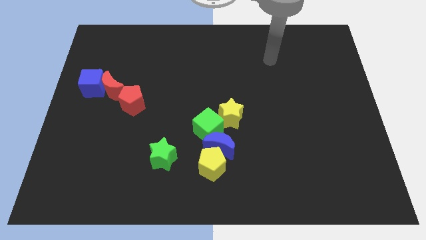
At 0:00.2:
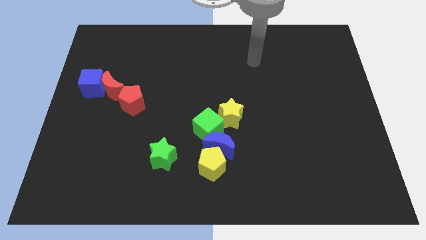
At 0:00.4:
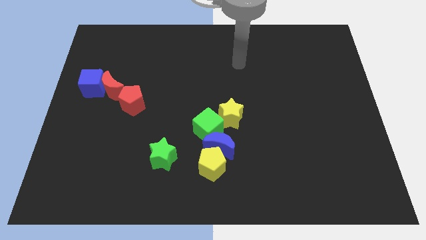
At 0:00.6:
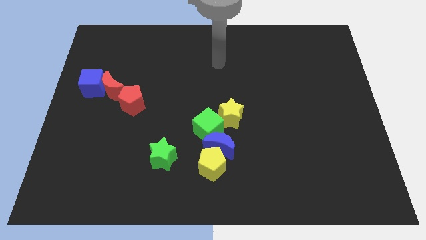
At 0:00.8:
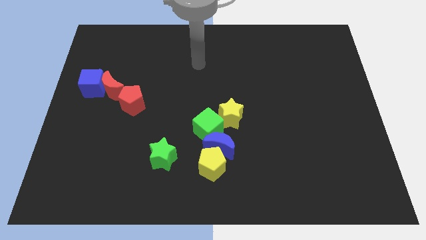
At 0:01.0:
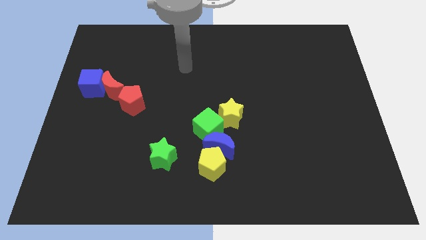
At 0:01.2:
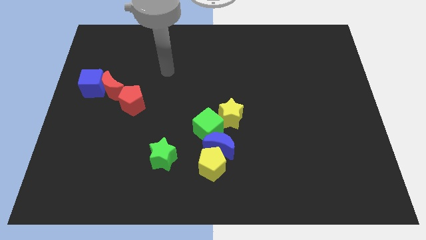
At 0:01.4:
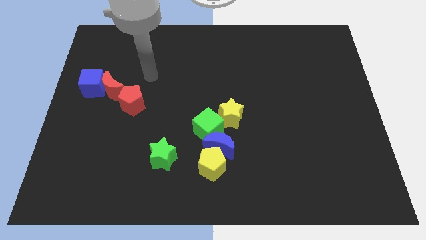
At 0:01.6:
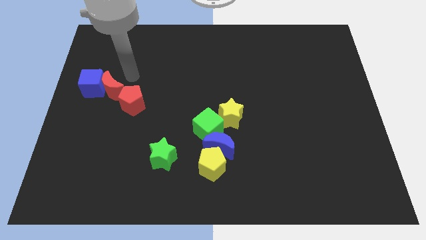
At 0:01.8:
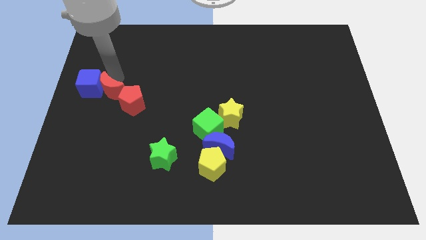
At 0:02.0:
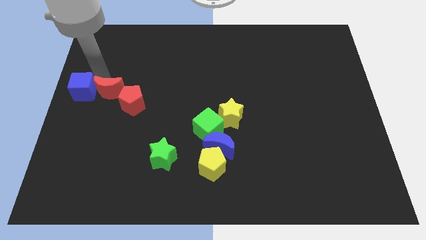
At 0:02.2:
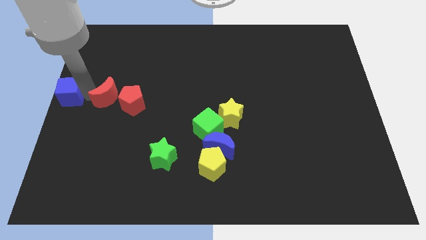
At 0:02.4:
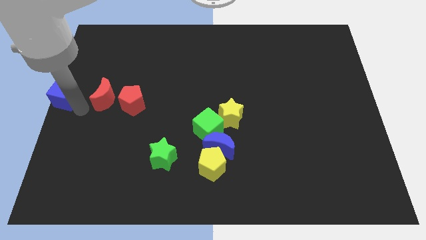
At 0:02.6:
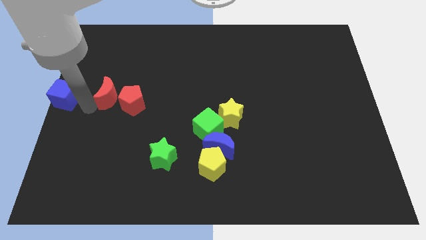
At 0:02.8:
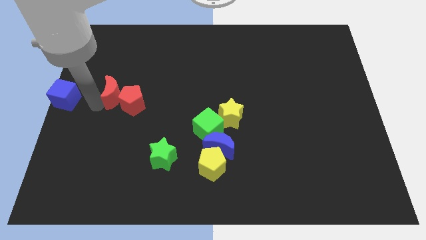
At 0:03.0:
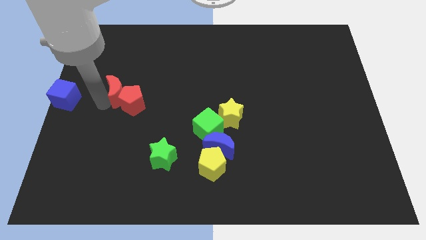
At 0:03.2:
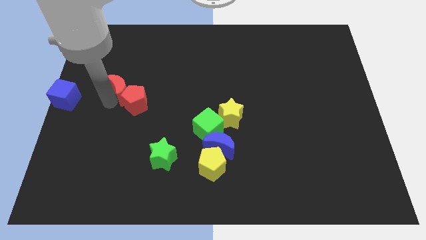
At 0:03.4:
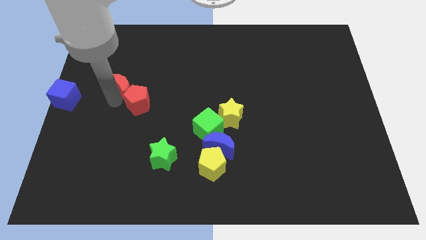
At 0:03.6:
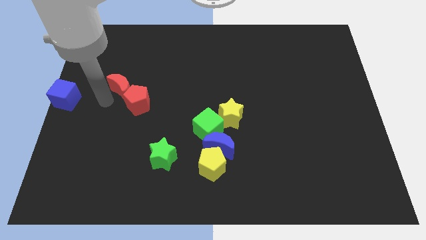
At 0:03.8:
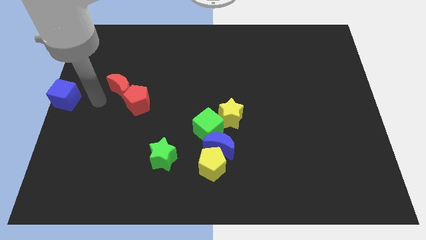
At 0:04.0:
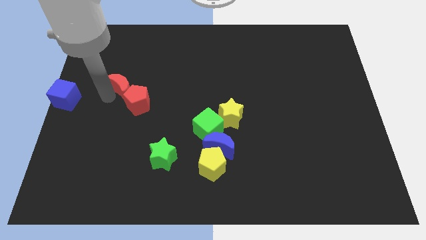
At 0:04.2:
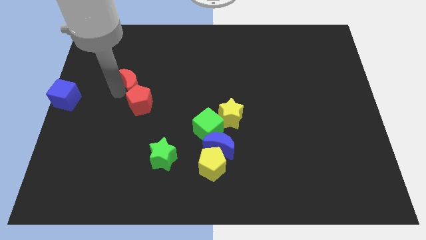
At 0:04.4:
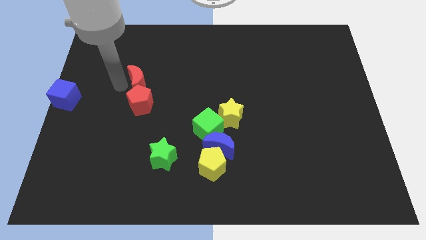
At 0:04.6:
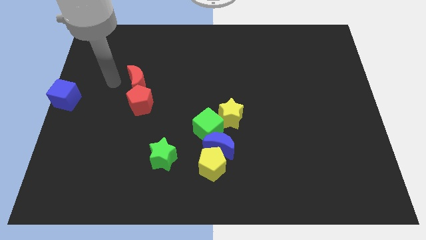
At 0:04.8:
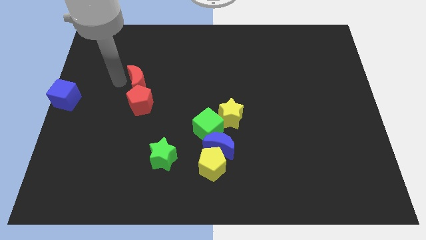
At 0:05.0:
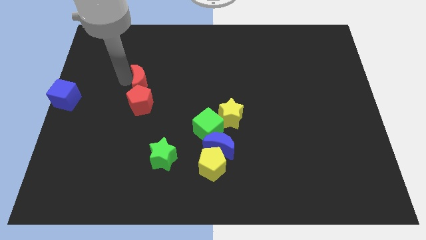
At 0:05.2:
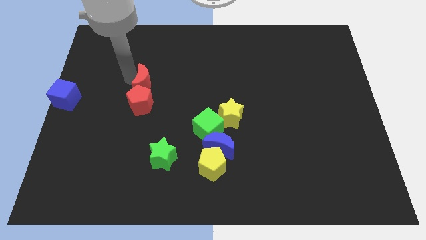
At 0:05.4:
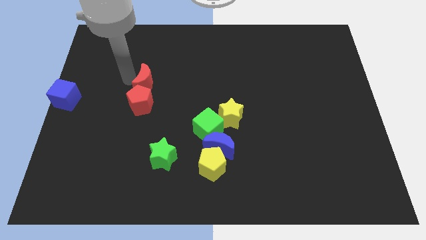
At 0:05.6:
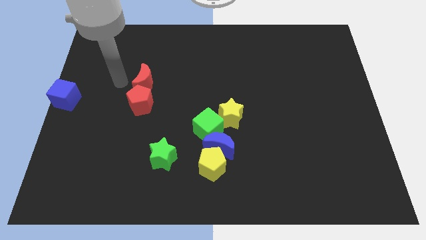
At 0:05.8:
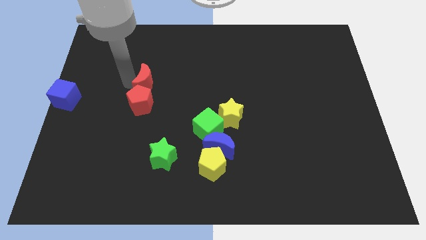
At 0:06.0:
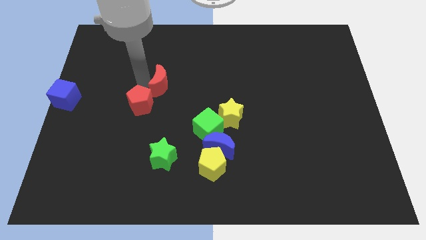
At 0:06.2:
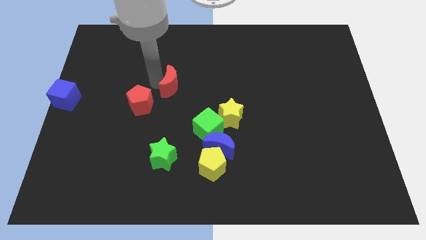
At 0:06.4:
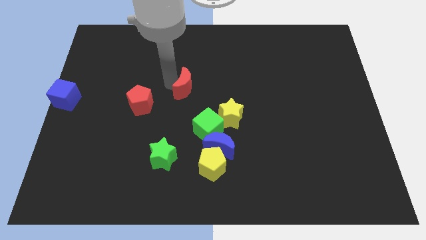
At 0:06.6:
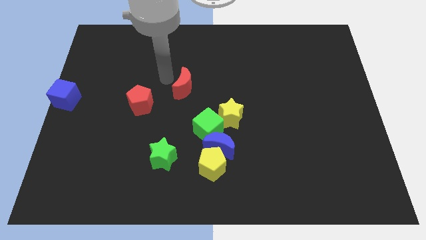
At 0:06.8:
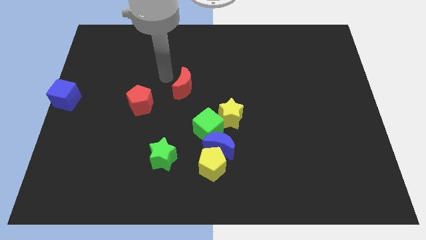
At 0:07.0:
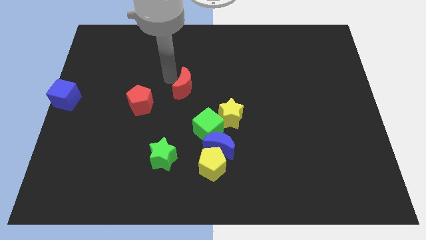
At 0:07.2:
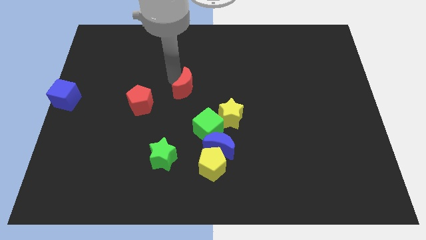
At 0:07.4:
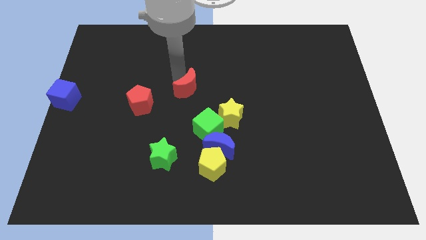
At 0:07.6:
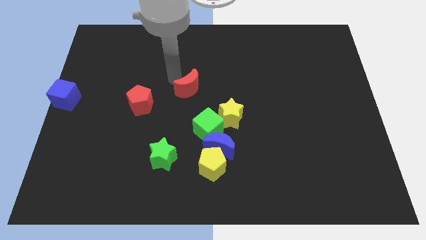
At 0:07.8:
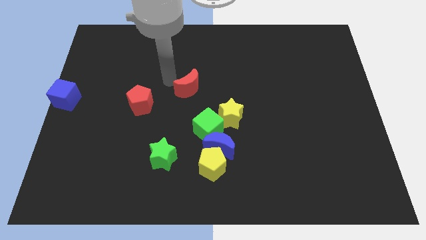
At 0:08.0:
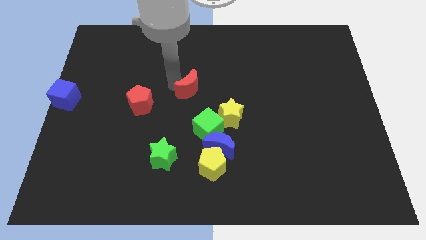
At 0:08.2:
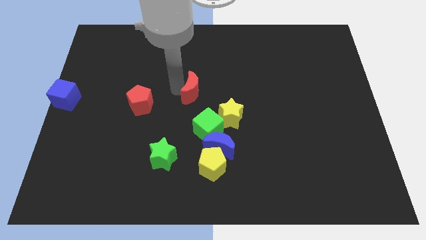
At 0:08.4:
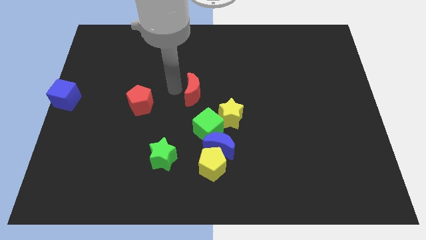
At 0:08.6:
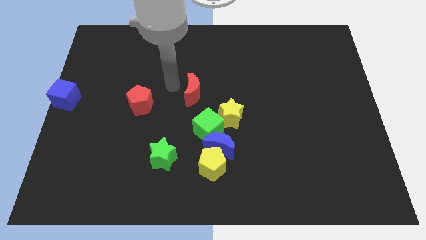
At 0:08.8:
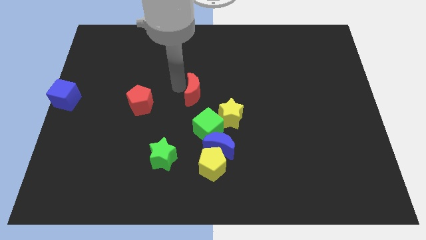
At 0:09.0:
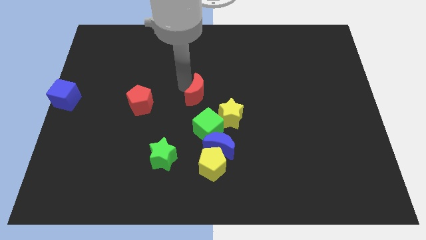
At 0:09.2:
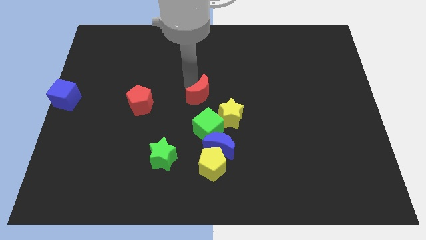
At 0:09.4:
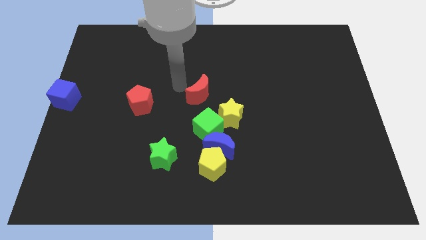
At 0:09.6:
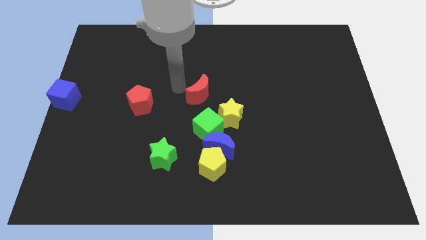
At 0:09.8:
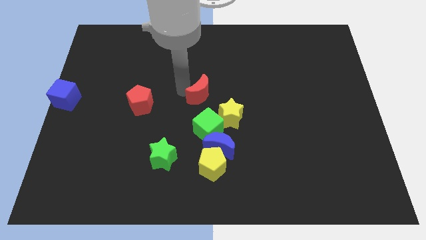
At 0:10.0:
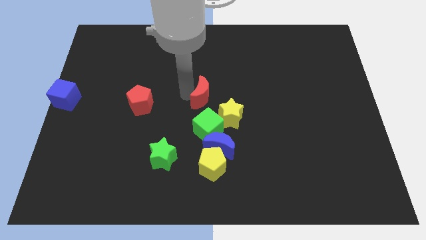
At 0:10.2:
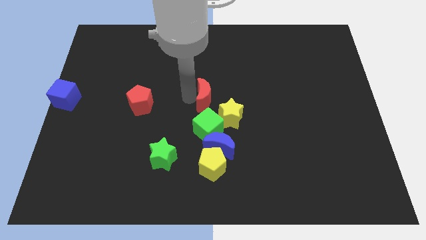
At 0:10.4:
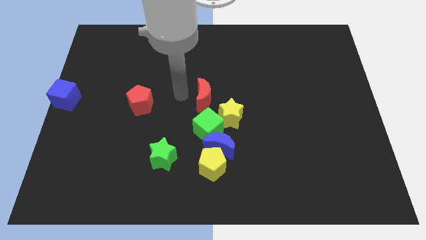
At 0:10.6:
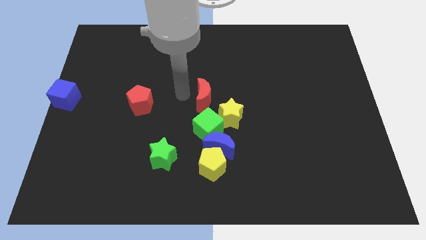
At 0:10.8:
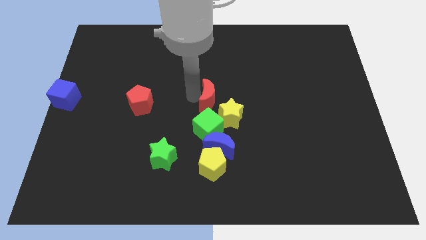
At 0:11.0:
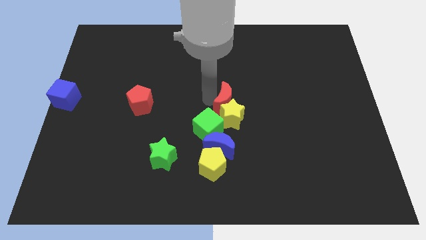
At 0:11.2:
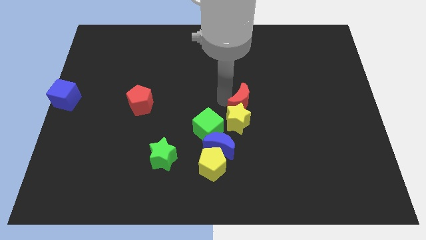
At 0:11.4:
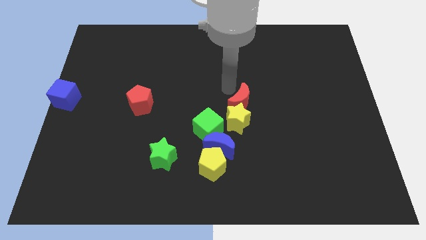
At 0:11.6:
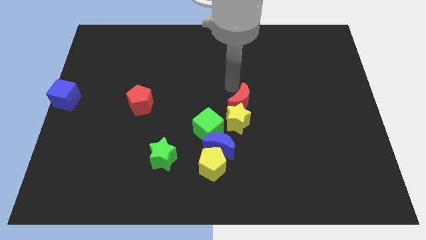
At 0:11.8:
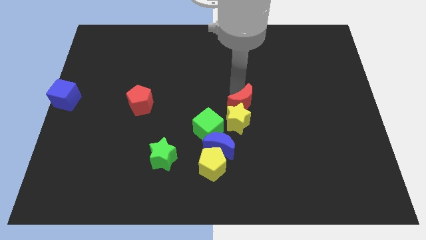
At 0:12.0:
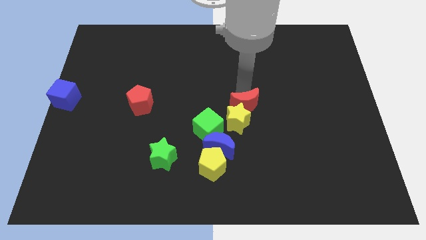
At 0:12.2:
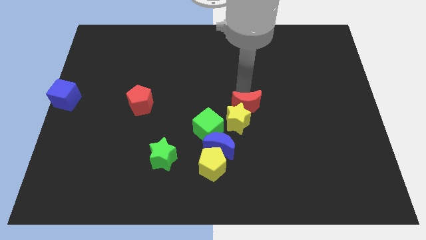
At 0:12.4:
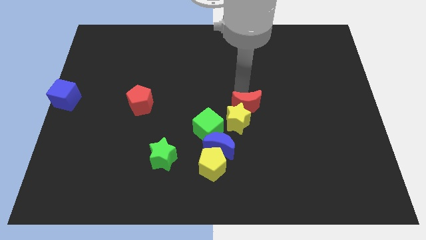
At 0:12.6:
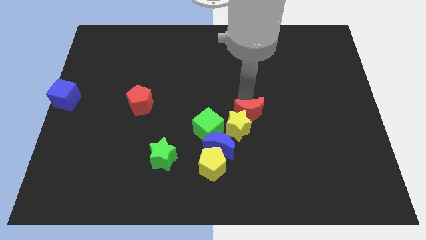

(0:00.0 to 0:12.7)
move the red moon right of the green cube

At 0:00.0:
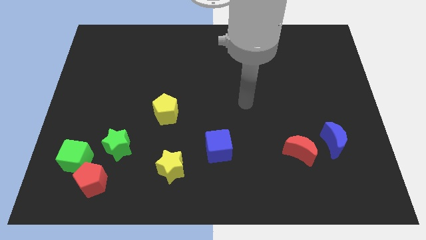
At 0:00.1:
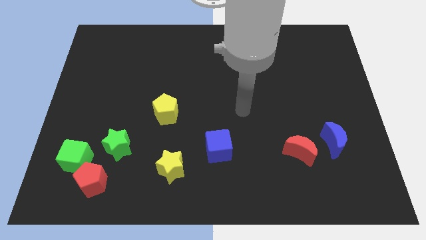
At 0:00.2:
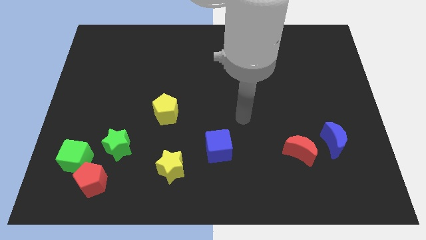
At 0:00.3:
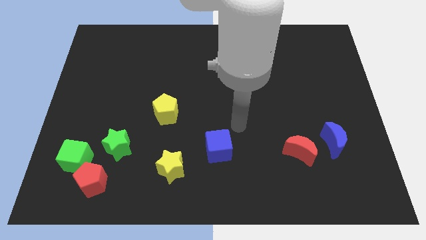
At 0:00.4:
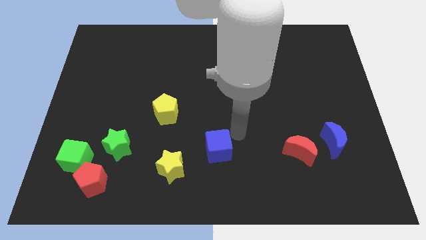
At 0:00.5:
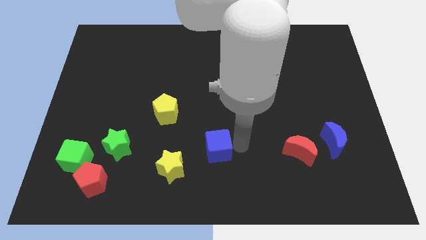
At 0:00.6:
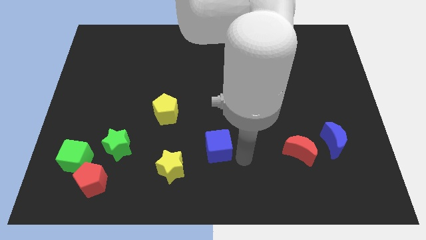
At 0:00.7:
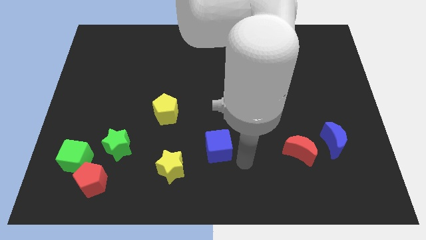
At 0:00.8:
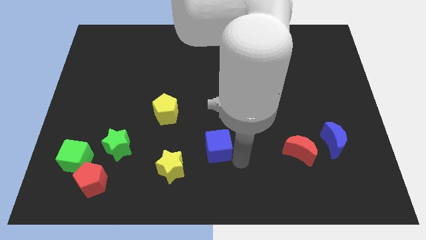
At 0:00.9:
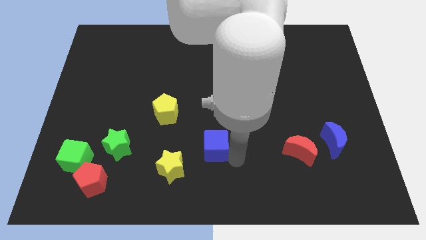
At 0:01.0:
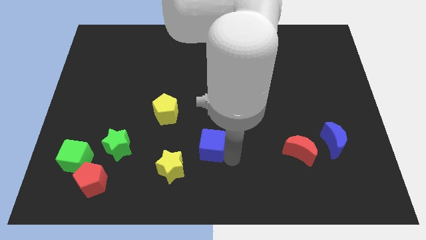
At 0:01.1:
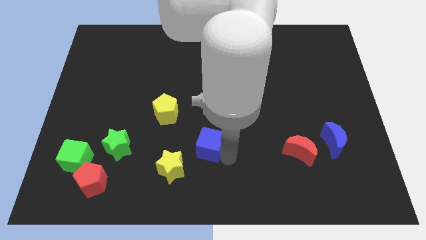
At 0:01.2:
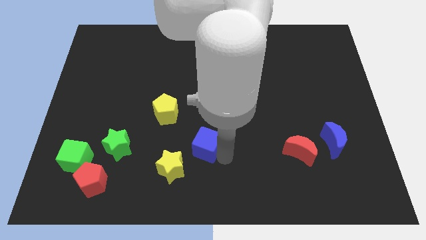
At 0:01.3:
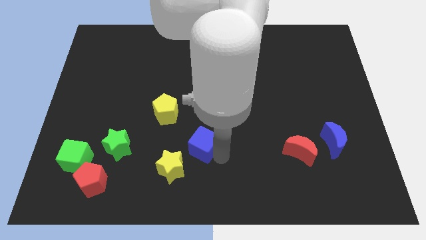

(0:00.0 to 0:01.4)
slide the blue cube to the bottom right of the yellow pentagon
